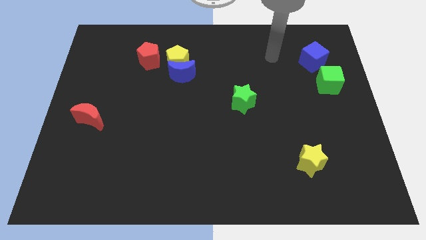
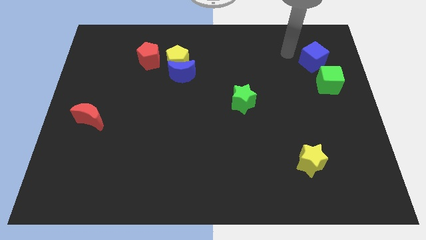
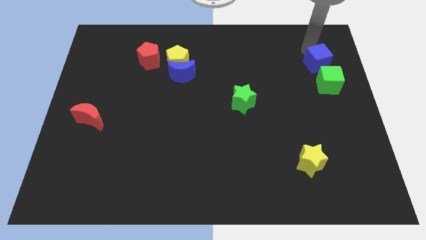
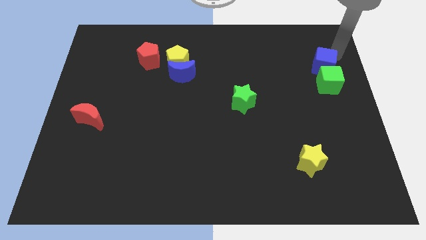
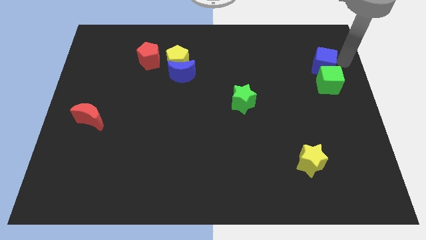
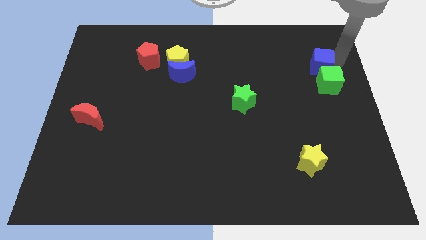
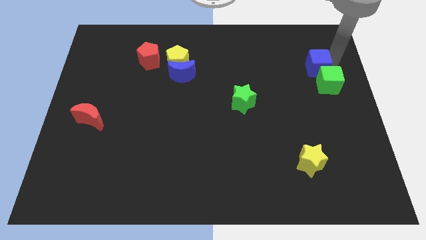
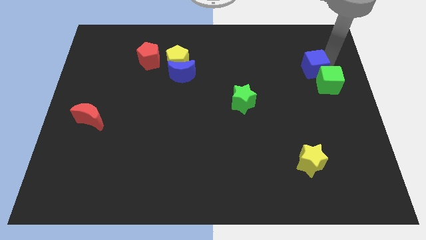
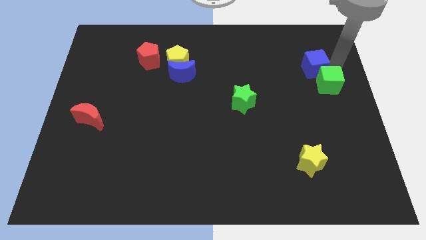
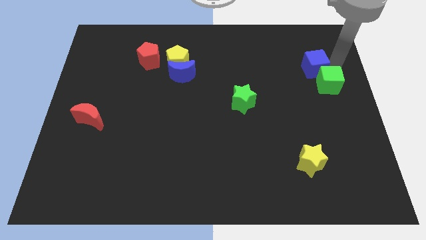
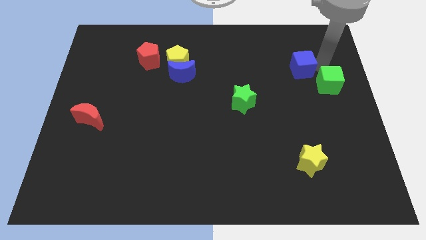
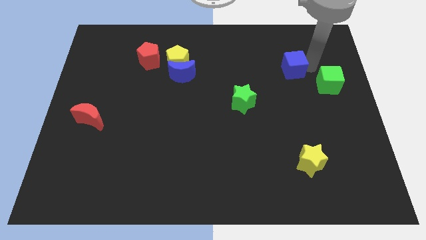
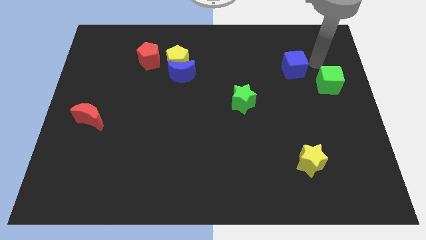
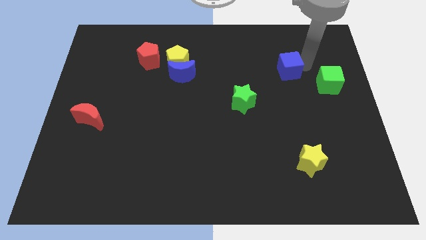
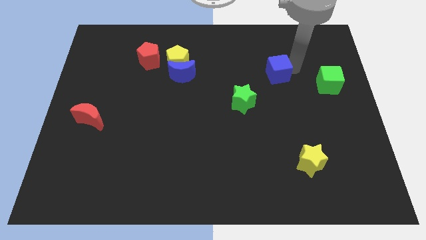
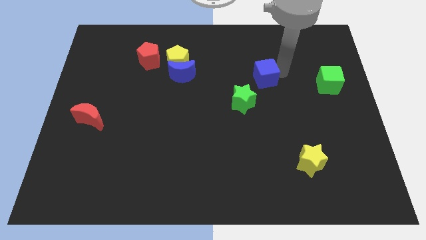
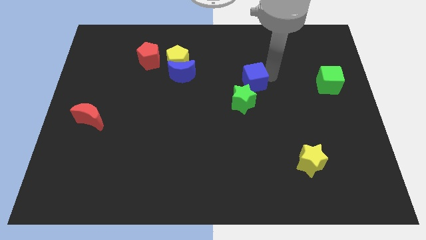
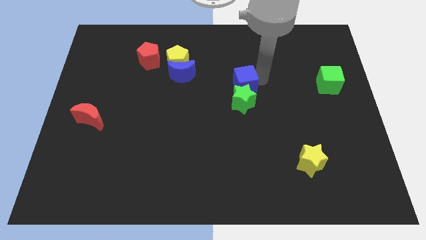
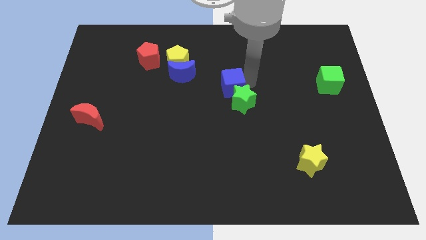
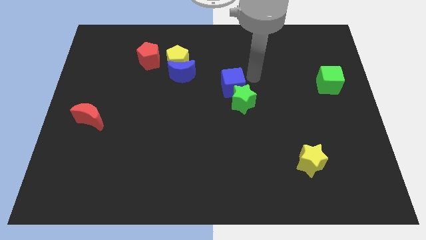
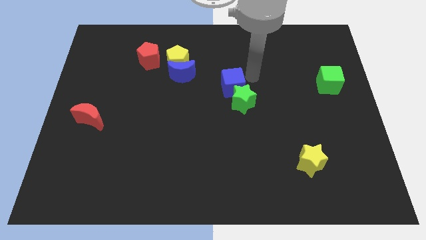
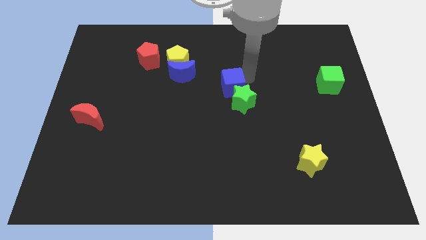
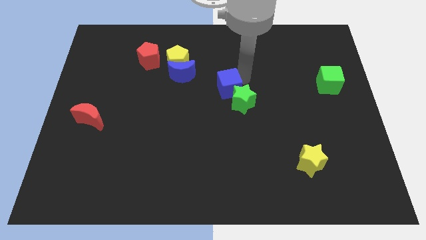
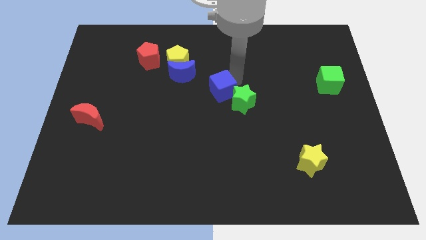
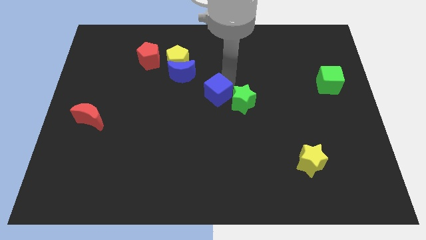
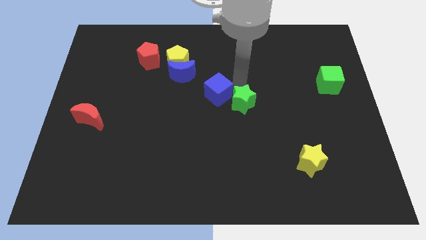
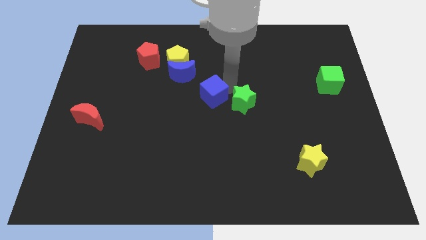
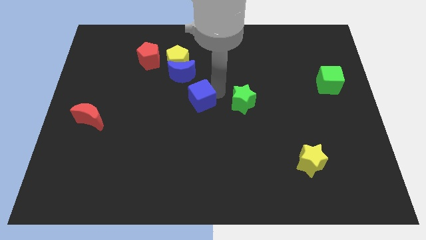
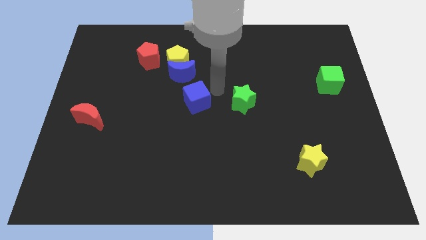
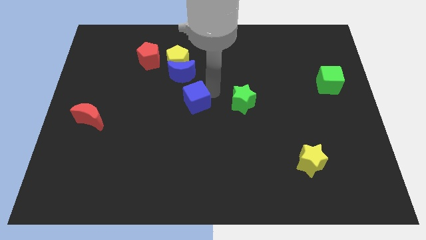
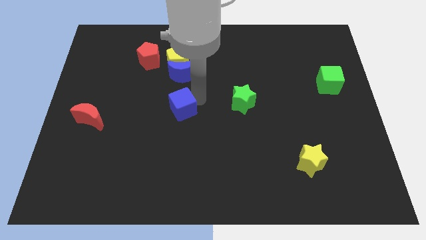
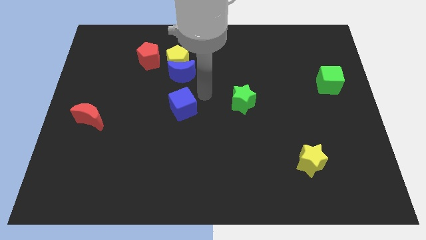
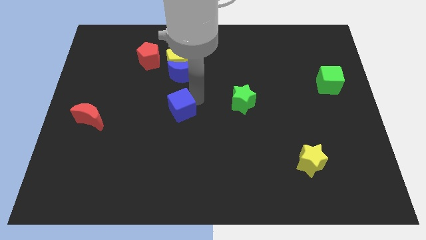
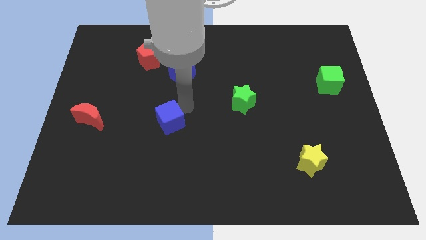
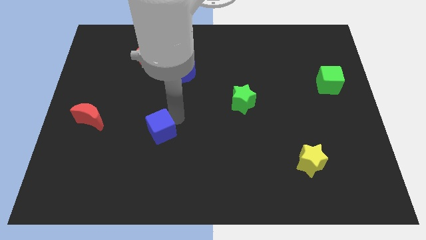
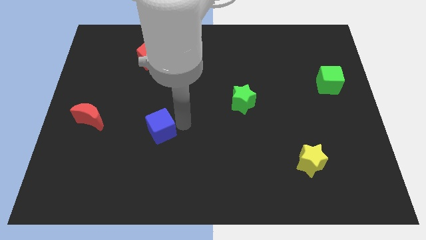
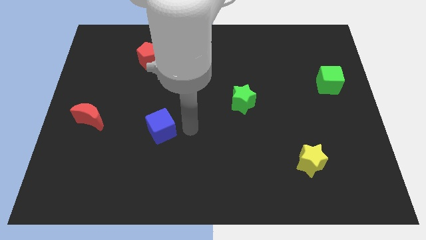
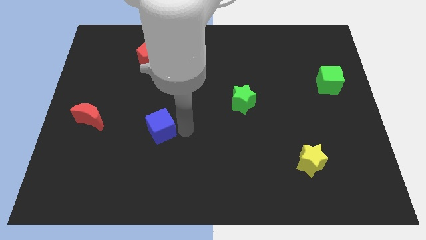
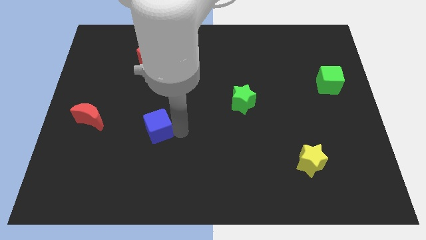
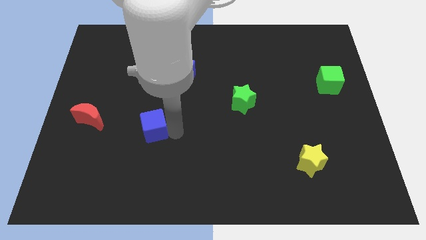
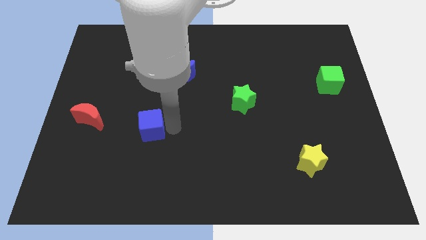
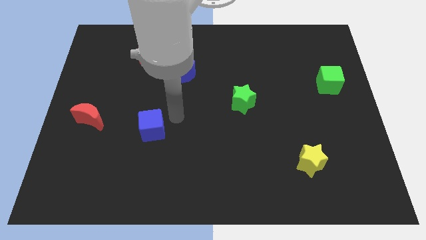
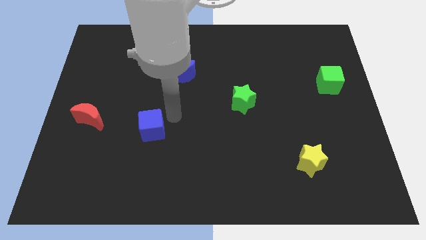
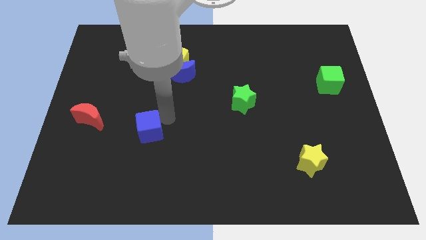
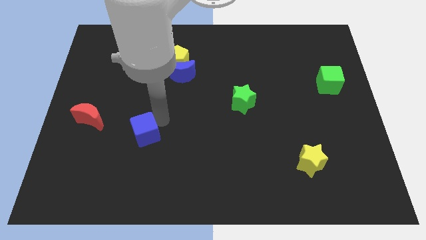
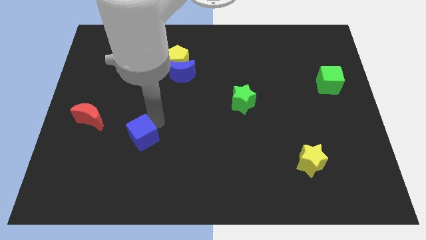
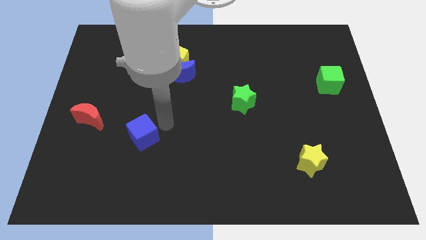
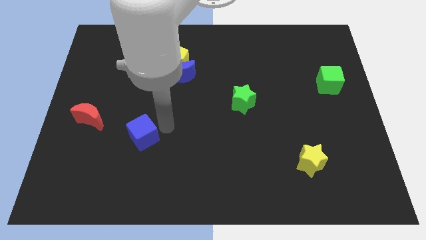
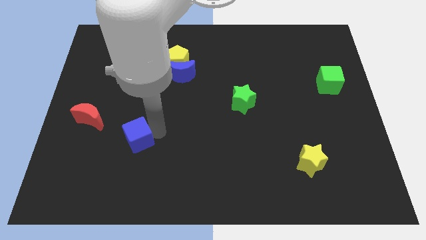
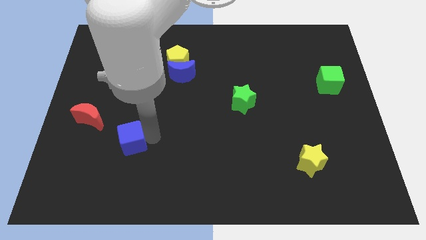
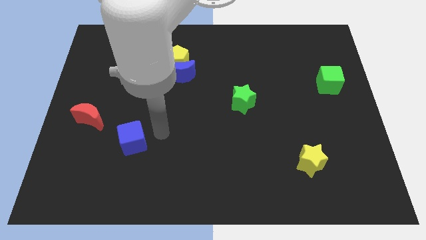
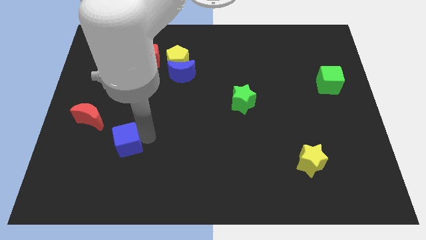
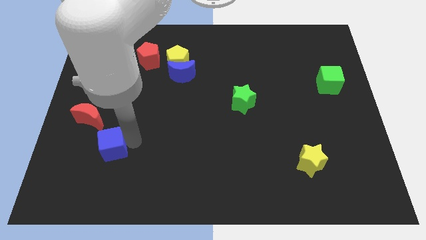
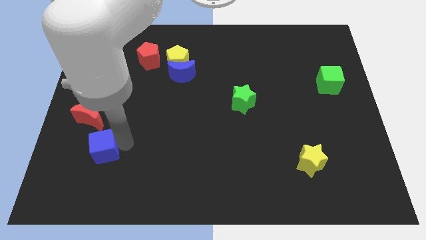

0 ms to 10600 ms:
put the blue cube below the red moon

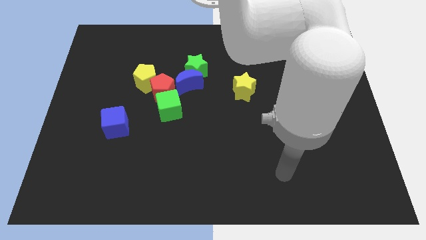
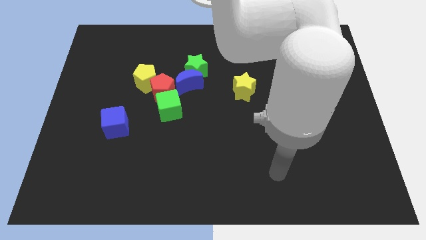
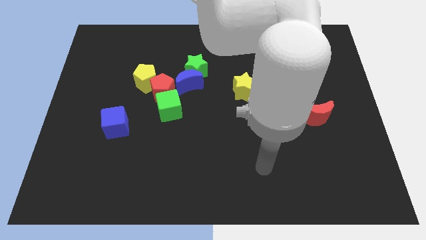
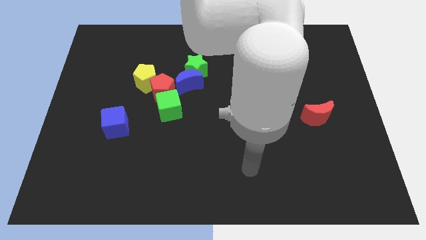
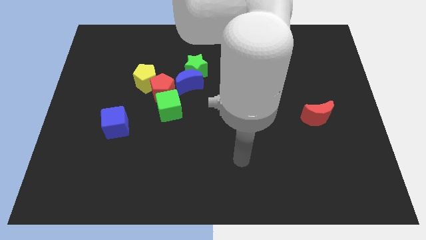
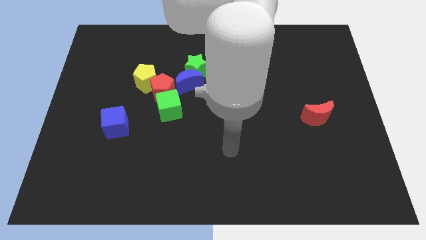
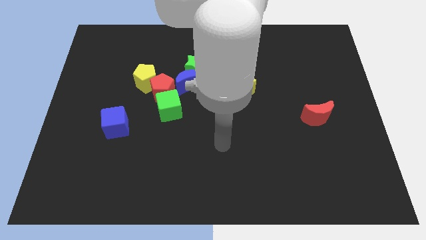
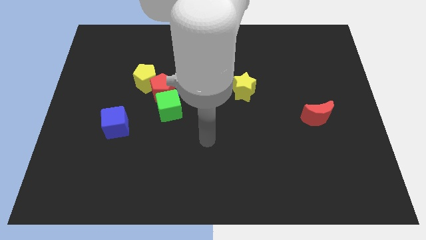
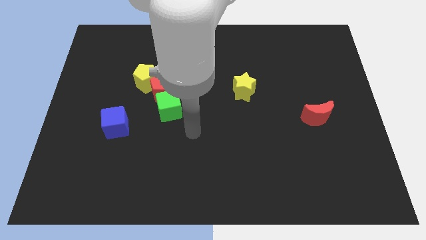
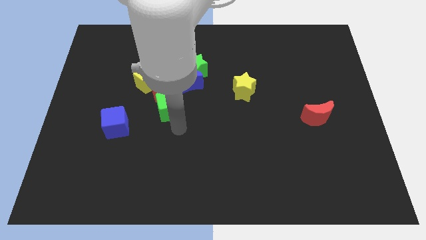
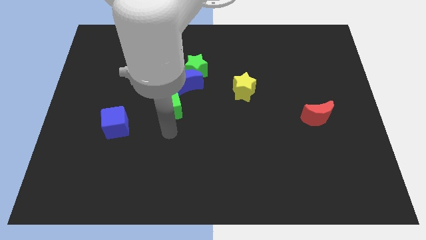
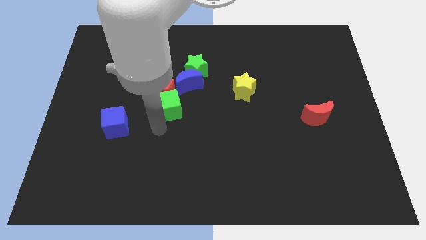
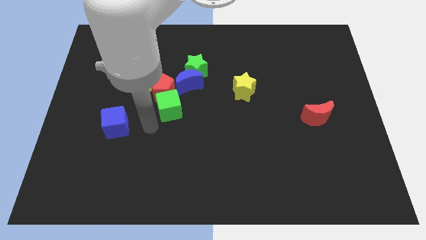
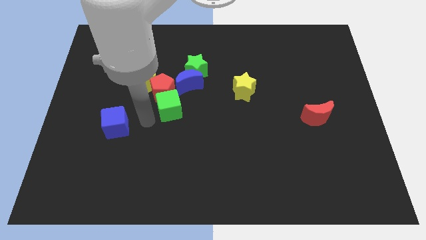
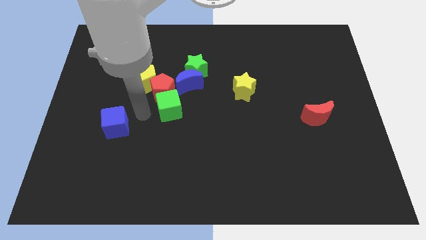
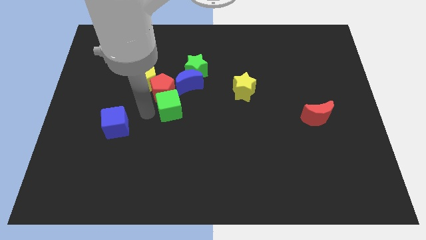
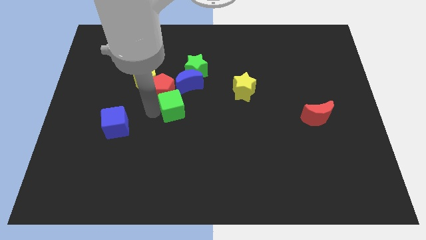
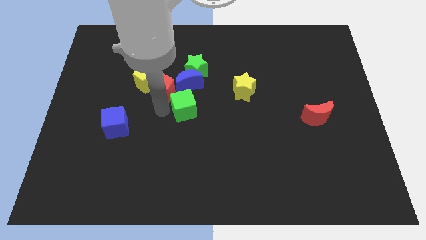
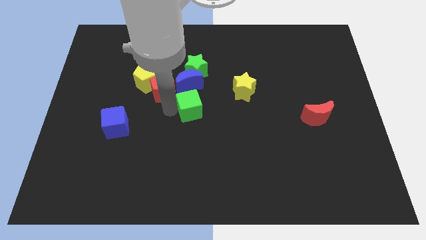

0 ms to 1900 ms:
put the green cube diagonally down and to the right of the blue moon

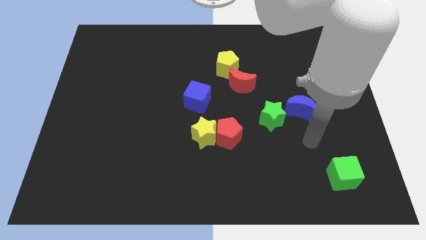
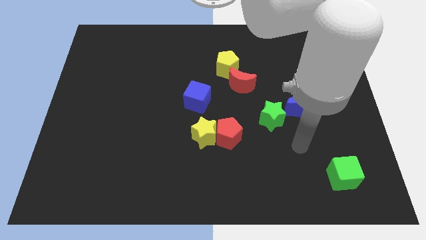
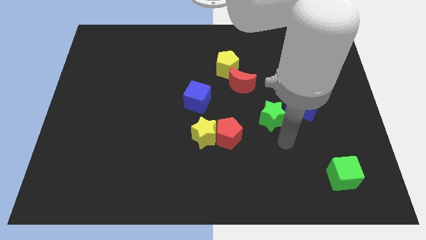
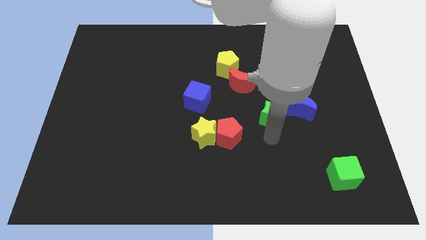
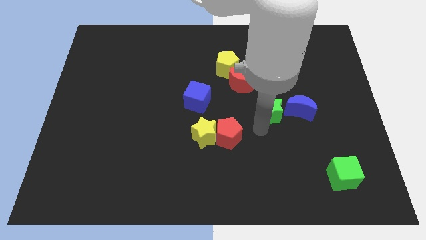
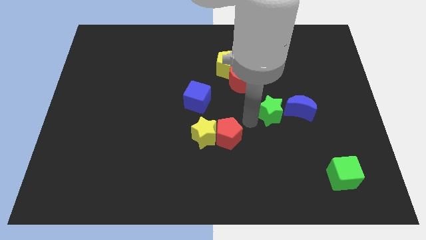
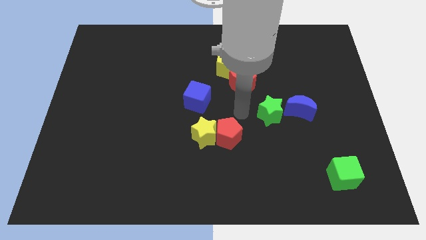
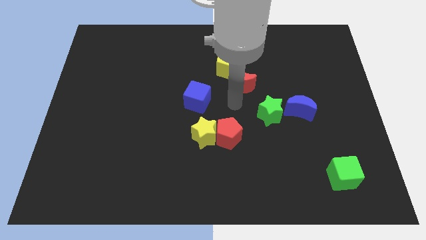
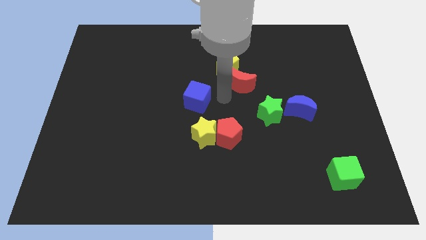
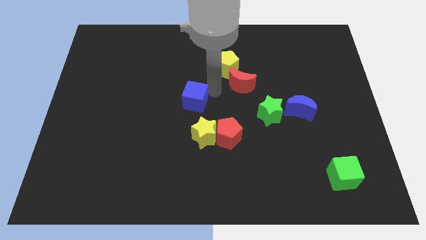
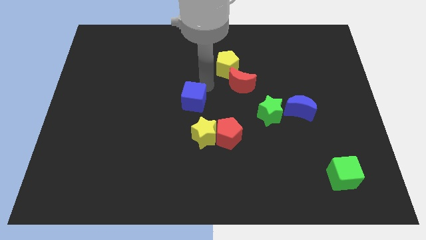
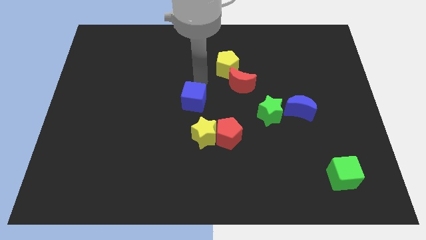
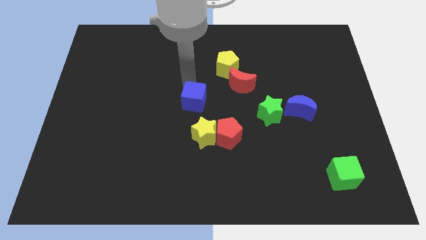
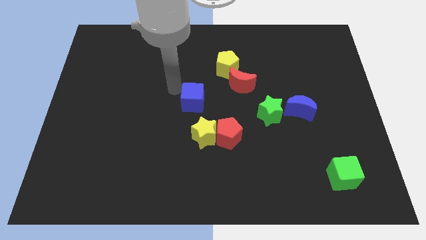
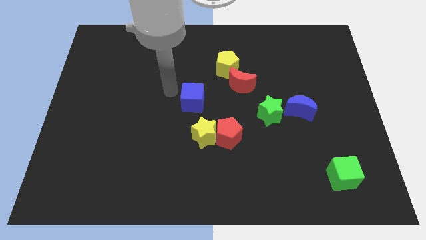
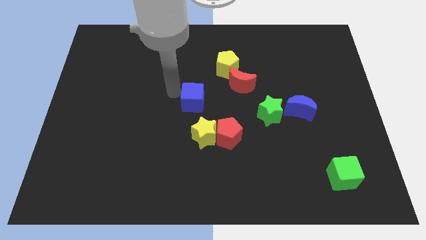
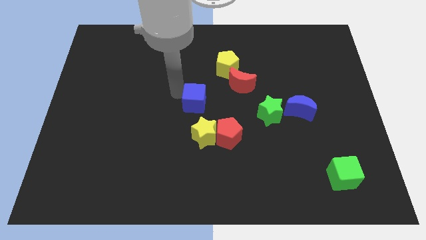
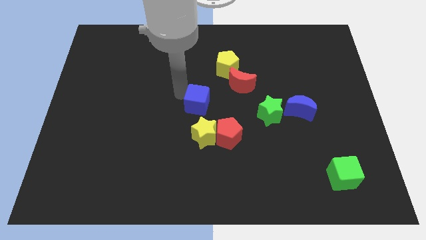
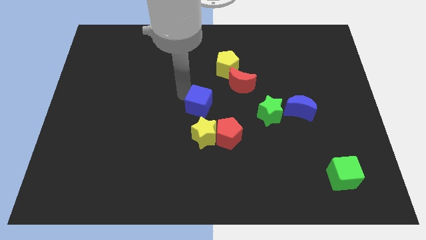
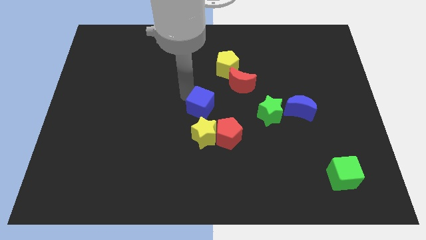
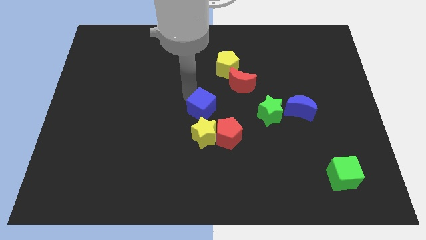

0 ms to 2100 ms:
put the blue cube left of the green star
